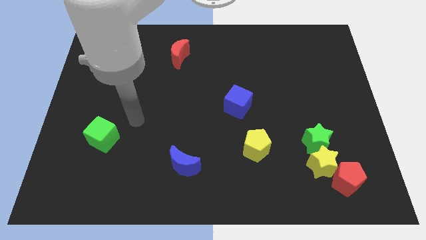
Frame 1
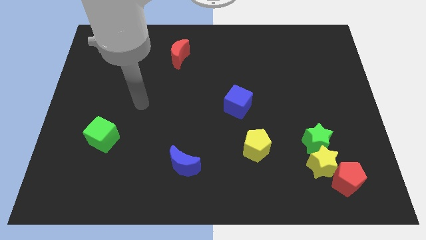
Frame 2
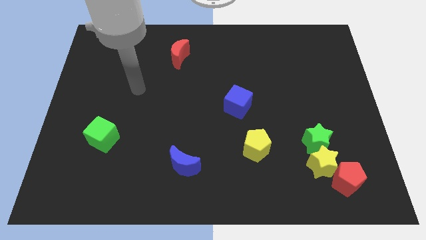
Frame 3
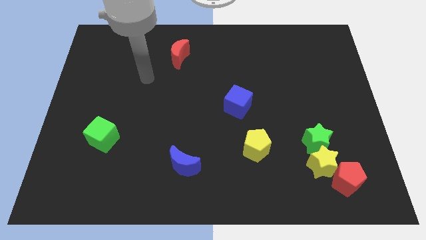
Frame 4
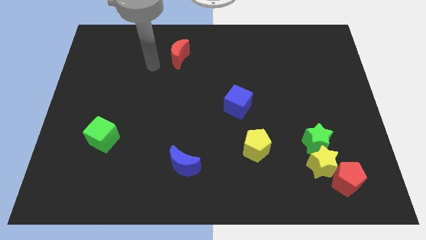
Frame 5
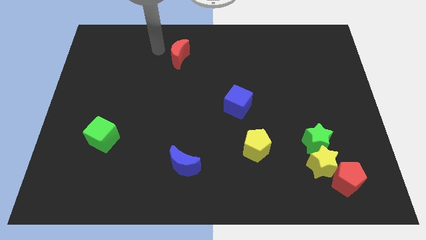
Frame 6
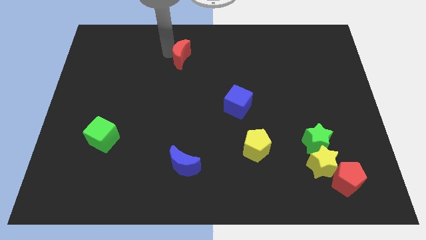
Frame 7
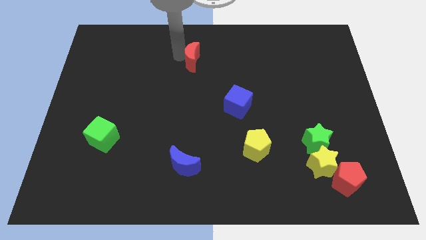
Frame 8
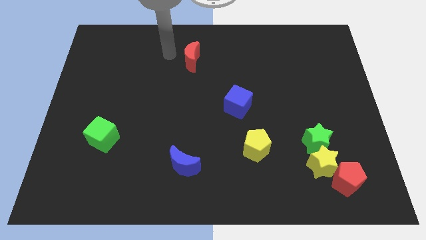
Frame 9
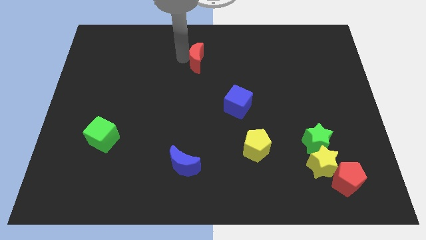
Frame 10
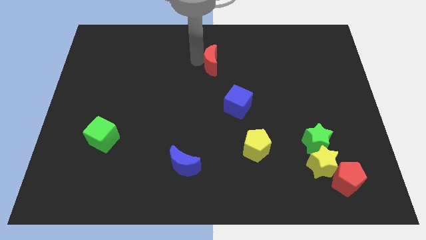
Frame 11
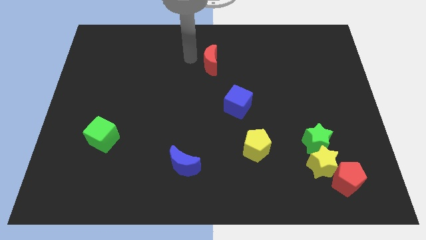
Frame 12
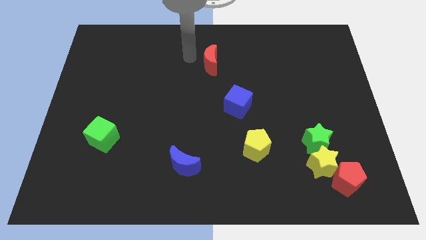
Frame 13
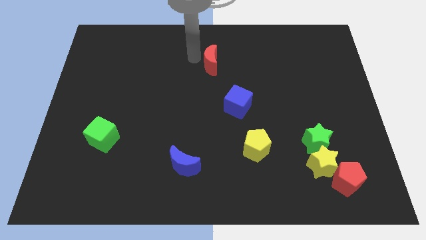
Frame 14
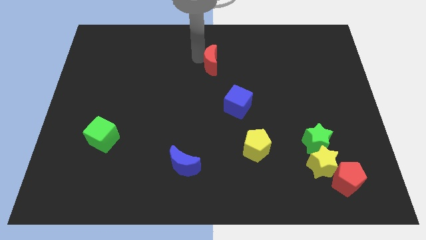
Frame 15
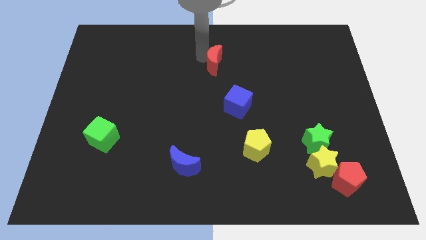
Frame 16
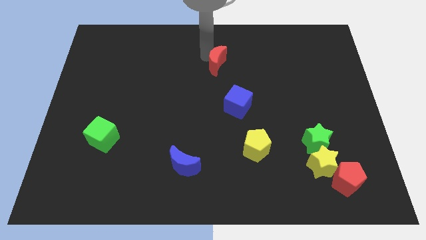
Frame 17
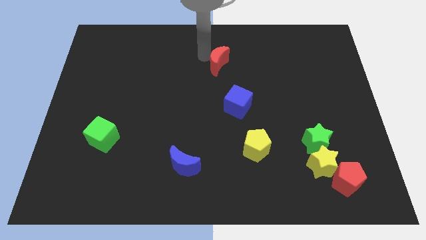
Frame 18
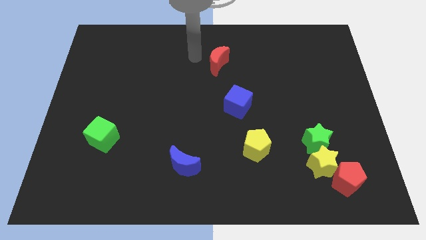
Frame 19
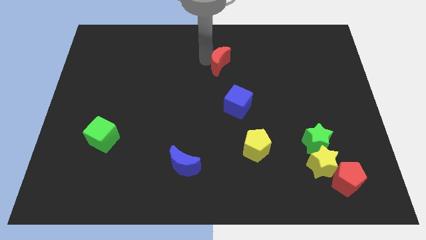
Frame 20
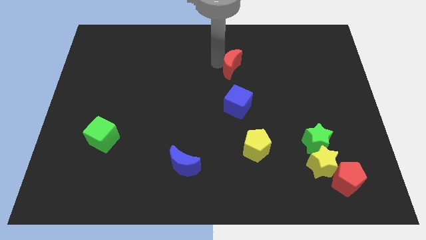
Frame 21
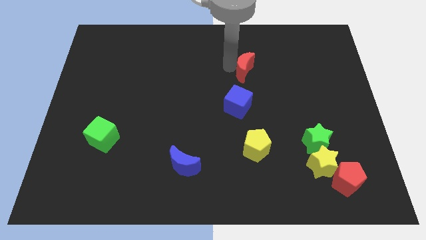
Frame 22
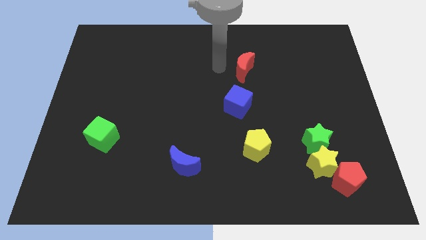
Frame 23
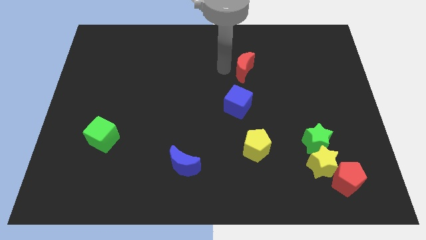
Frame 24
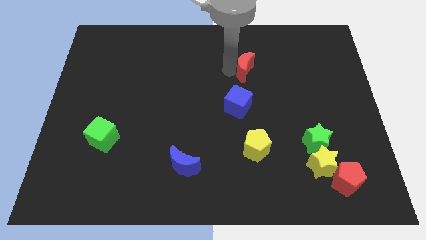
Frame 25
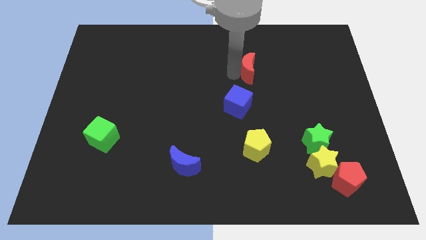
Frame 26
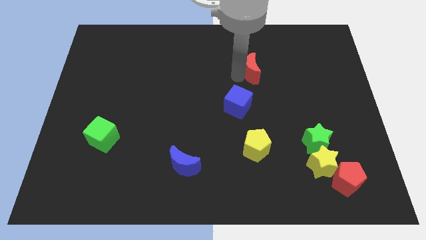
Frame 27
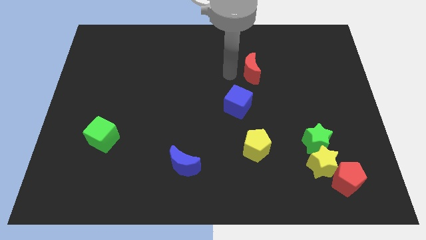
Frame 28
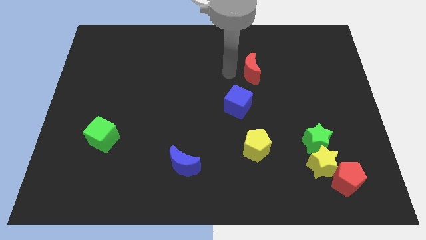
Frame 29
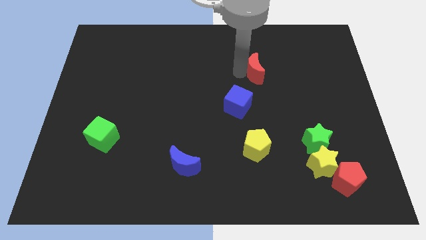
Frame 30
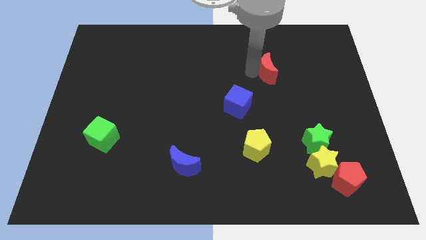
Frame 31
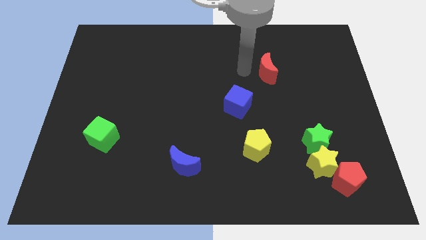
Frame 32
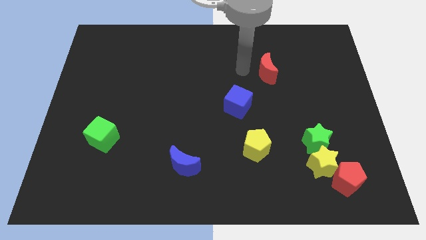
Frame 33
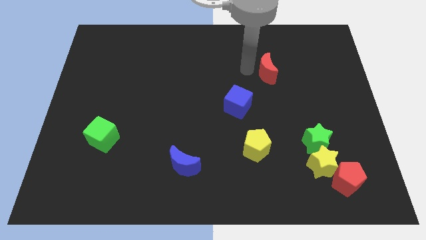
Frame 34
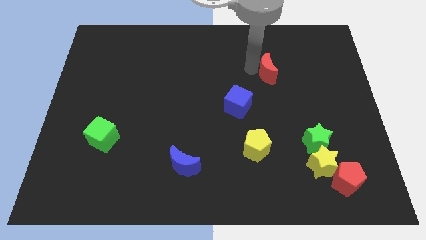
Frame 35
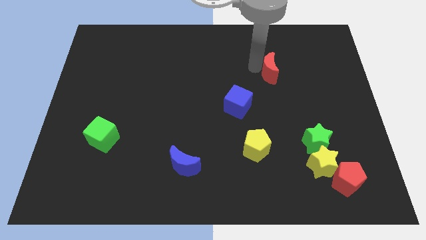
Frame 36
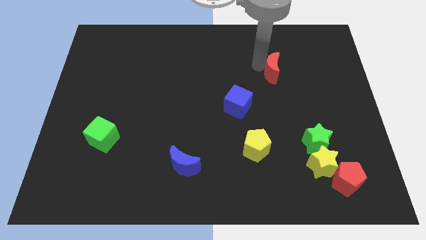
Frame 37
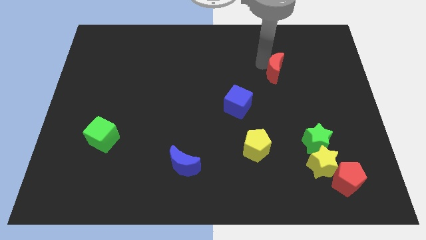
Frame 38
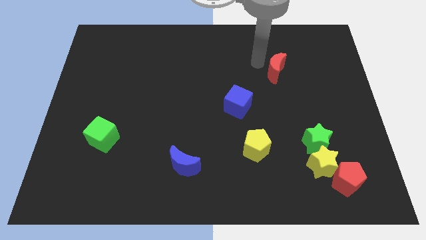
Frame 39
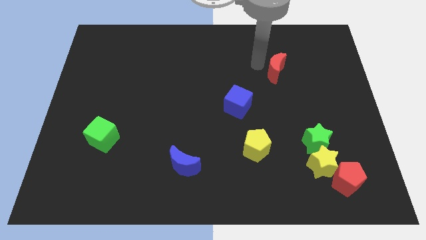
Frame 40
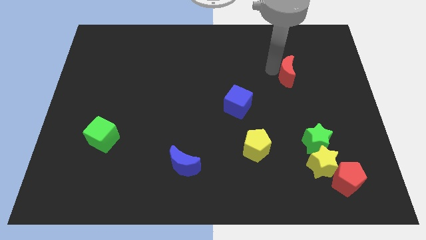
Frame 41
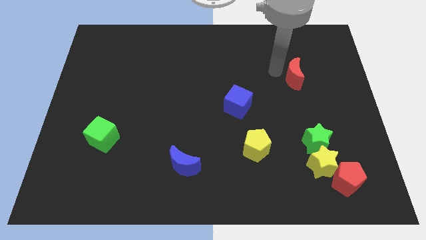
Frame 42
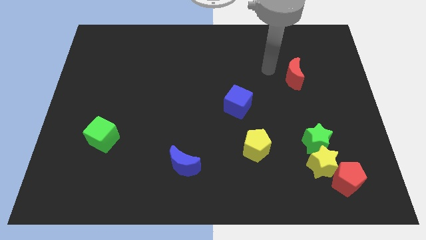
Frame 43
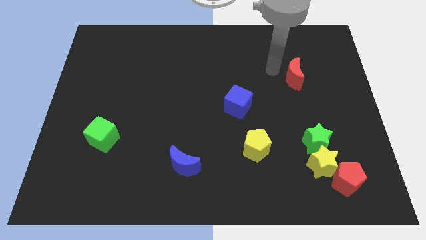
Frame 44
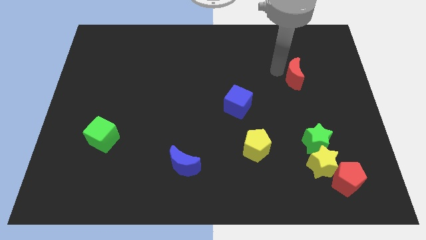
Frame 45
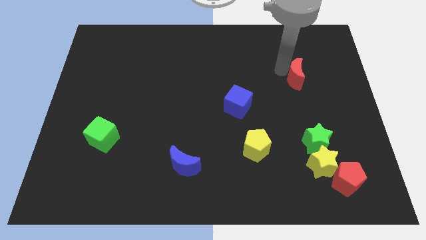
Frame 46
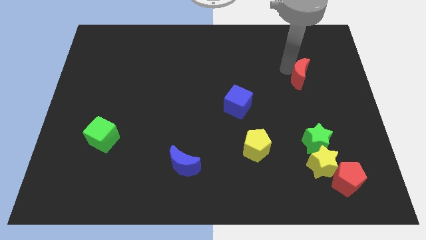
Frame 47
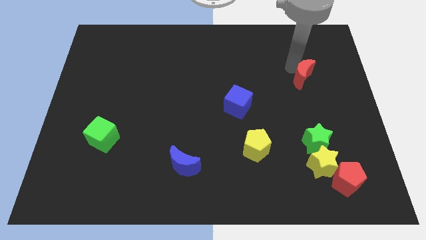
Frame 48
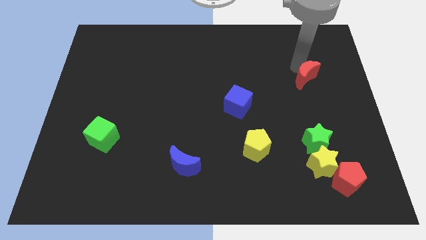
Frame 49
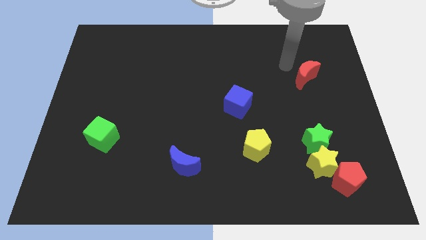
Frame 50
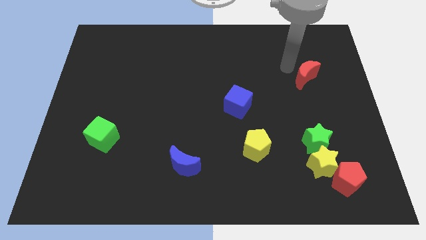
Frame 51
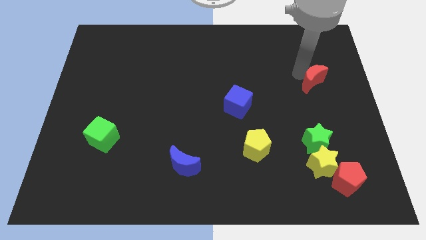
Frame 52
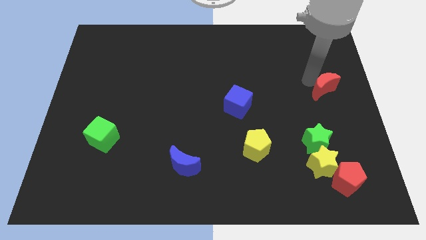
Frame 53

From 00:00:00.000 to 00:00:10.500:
put the red moon to the center right

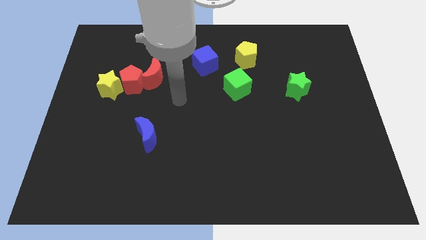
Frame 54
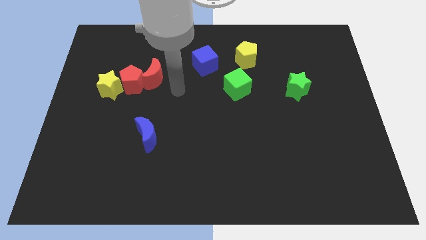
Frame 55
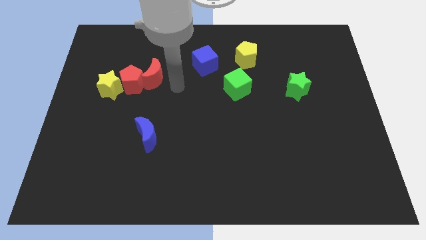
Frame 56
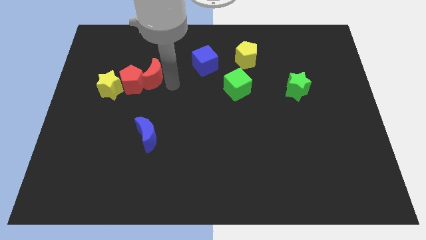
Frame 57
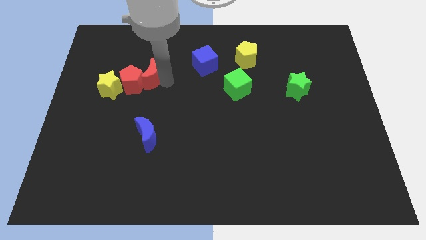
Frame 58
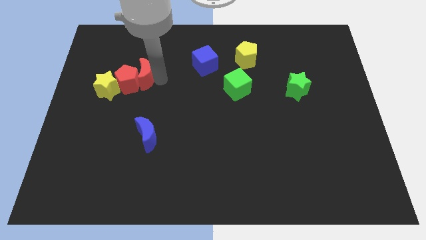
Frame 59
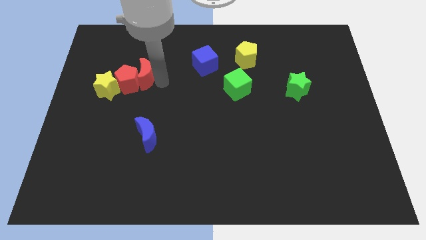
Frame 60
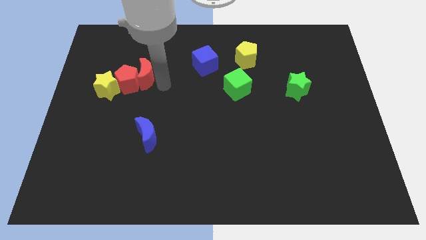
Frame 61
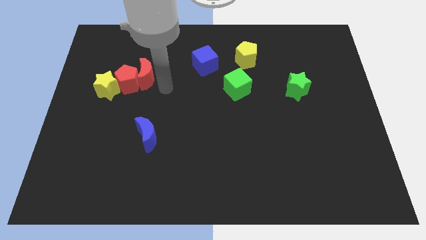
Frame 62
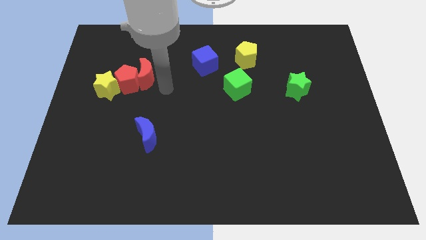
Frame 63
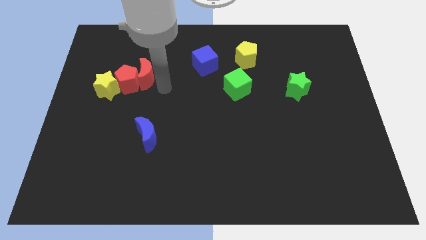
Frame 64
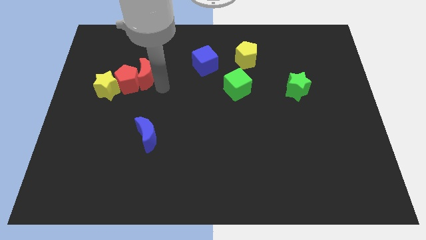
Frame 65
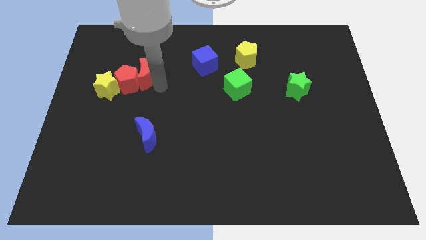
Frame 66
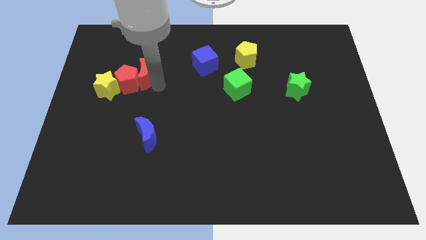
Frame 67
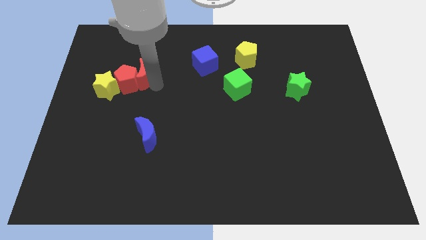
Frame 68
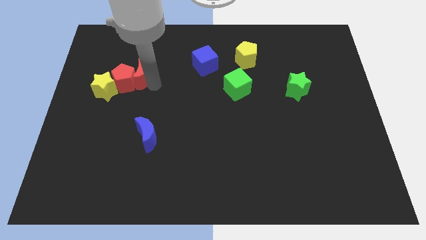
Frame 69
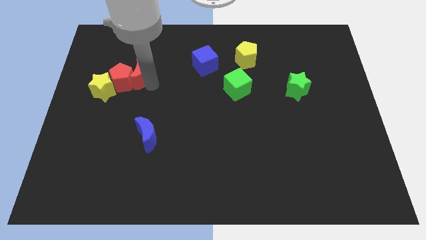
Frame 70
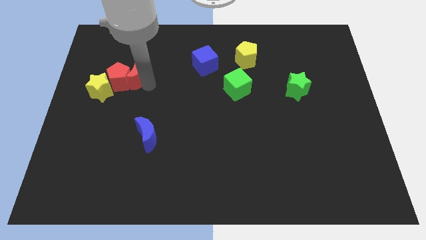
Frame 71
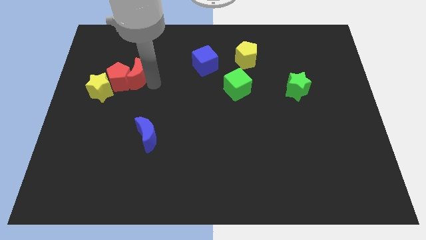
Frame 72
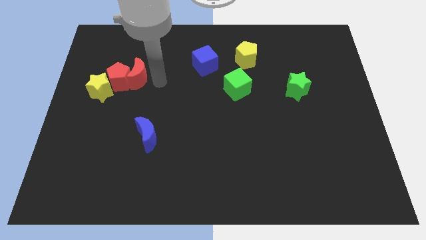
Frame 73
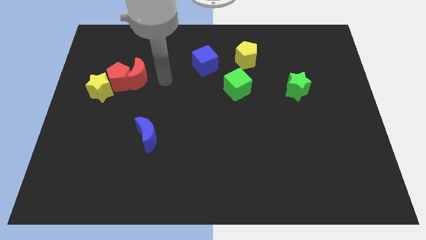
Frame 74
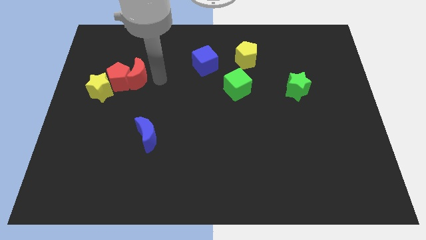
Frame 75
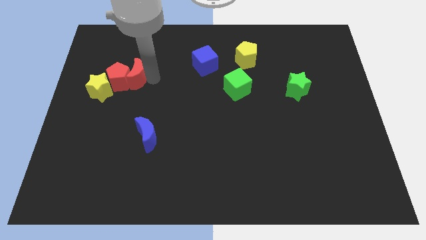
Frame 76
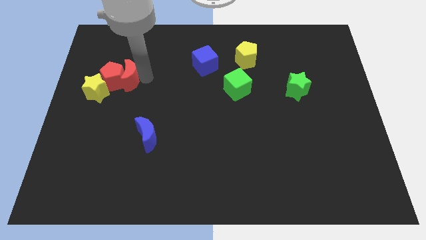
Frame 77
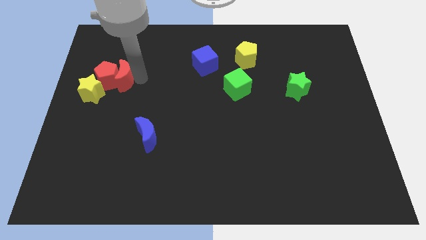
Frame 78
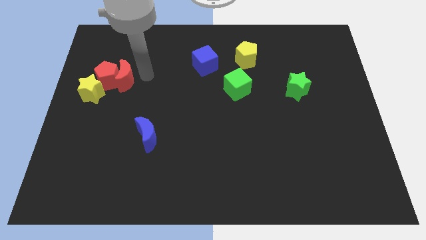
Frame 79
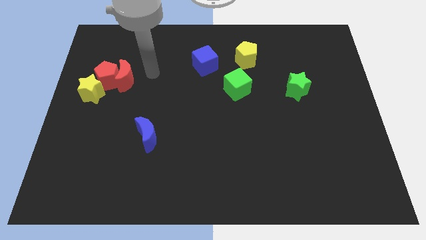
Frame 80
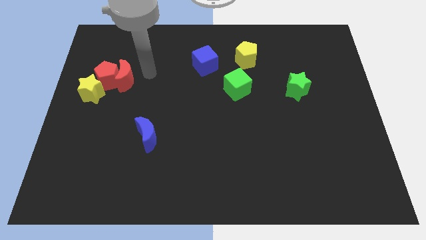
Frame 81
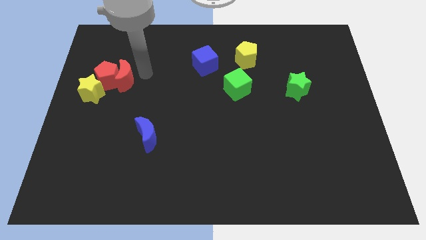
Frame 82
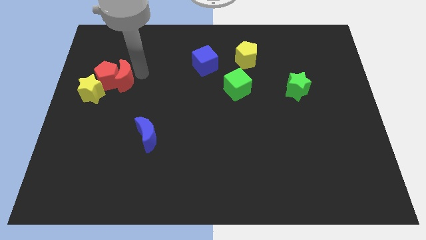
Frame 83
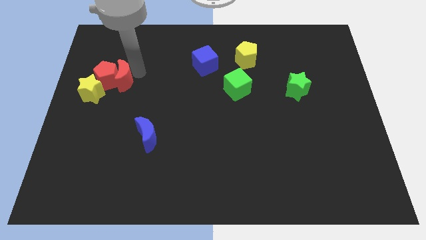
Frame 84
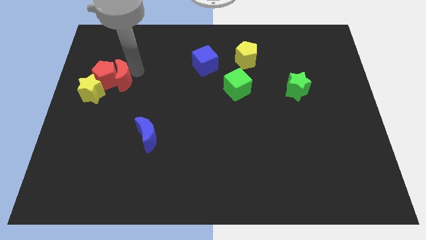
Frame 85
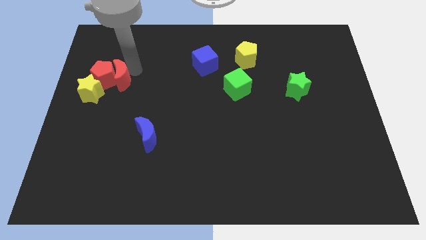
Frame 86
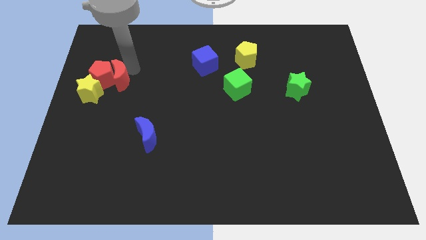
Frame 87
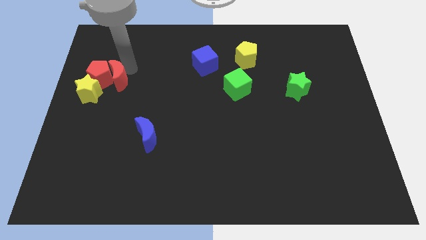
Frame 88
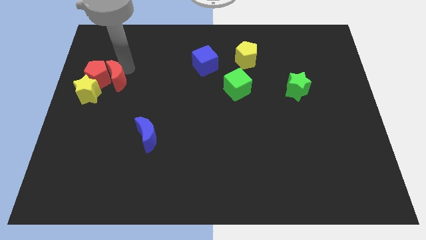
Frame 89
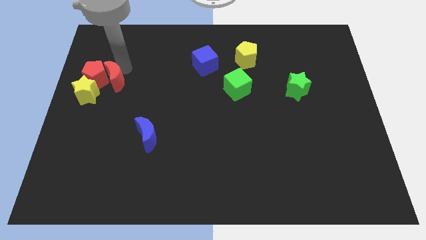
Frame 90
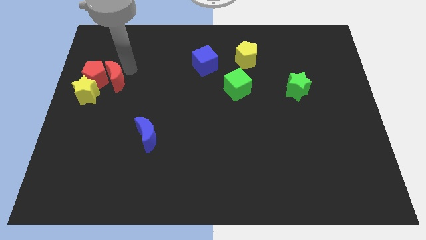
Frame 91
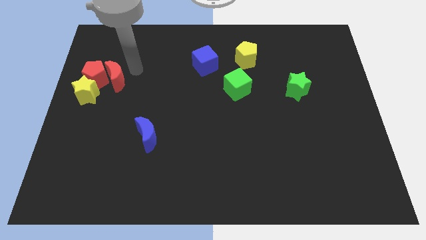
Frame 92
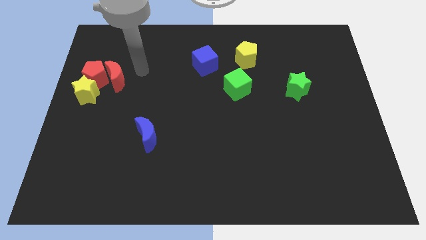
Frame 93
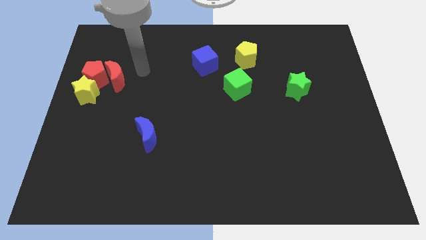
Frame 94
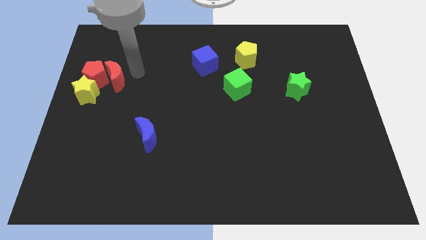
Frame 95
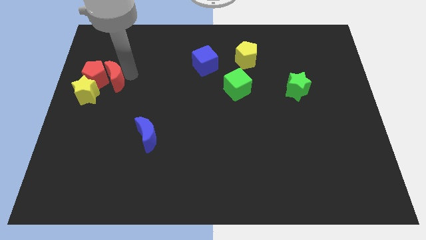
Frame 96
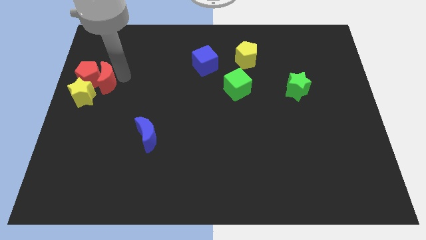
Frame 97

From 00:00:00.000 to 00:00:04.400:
slide the red moon to the left side of the board
